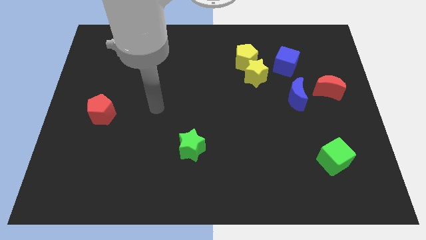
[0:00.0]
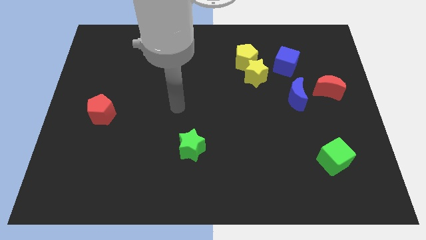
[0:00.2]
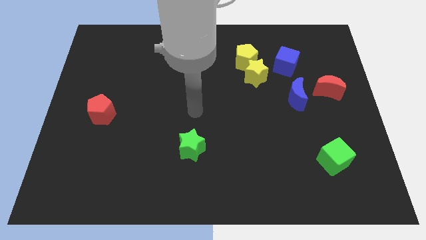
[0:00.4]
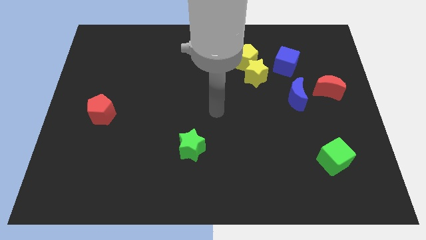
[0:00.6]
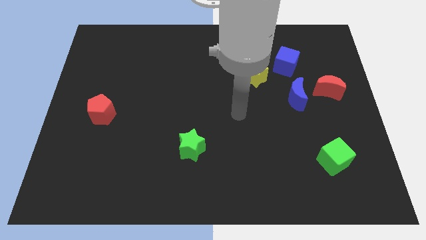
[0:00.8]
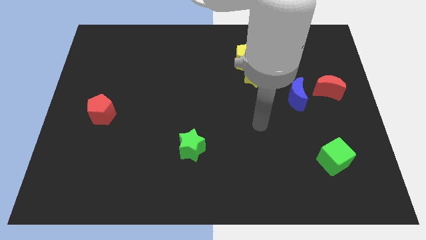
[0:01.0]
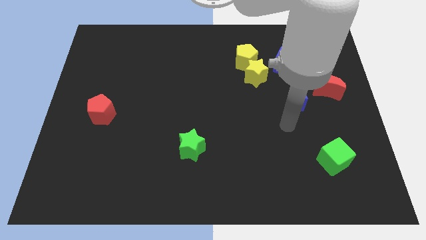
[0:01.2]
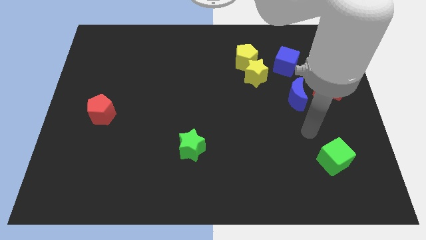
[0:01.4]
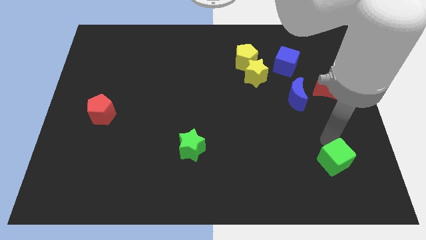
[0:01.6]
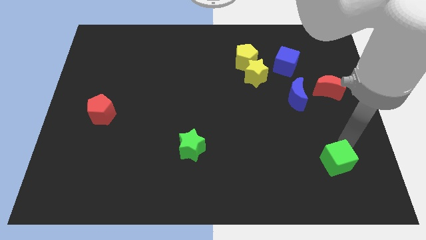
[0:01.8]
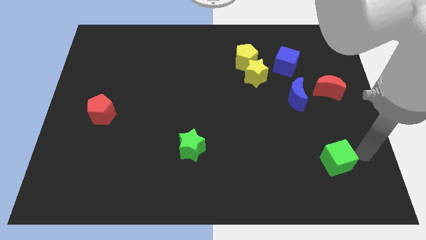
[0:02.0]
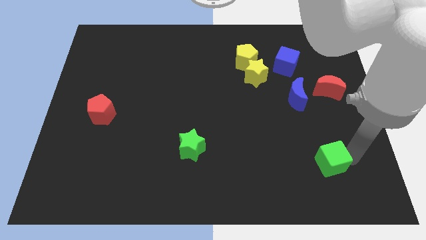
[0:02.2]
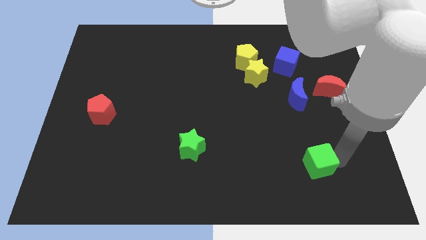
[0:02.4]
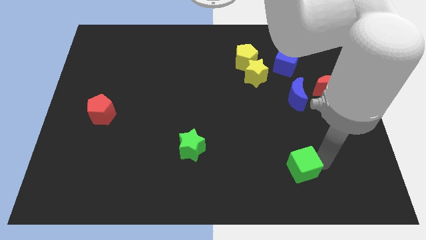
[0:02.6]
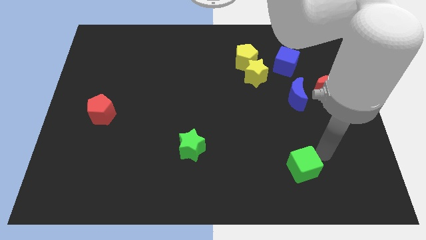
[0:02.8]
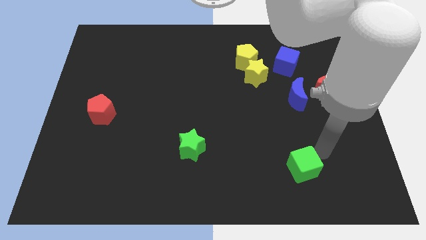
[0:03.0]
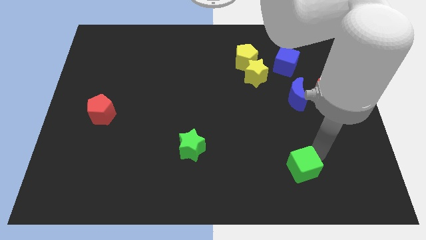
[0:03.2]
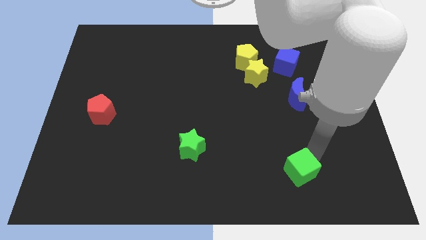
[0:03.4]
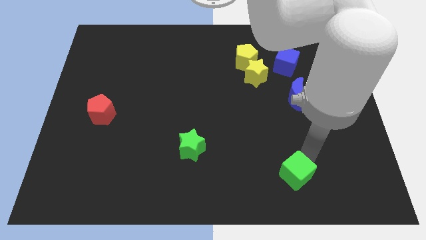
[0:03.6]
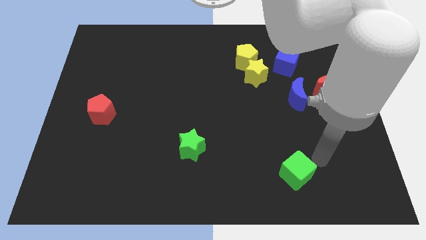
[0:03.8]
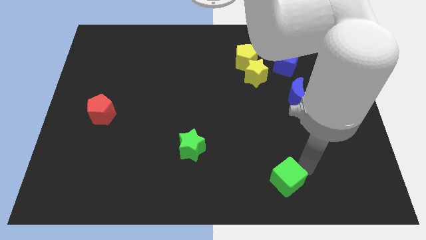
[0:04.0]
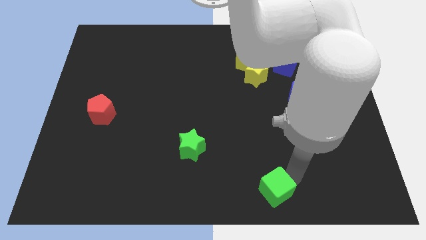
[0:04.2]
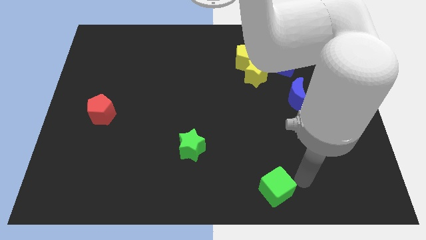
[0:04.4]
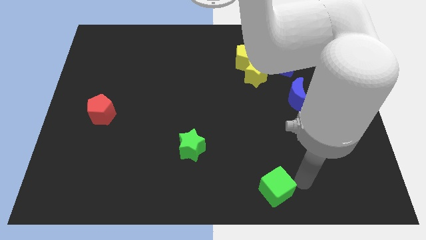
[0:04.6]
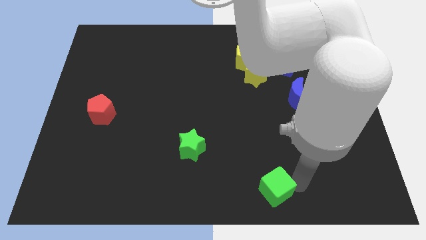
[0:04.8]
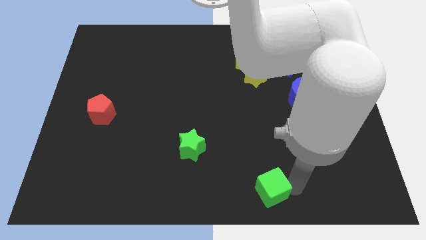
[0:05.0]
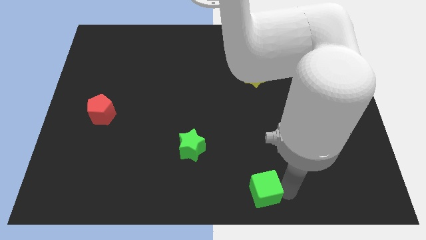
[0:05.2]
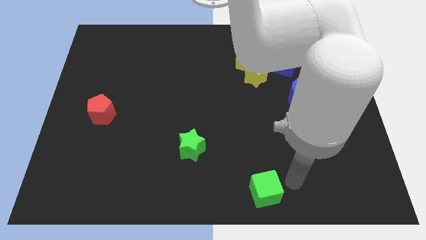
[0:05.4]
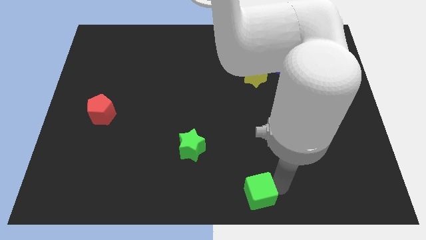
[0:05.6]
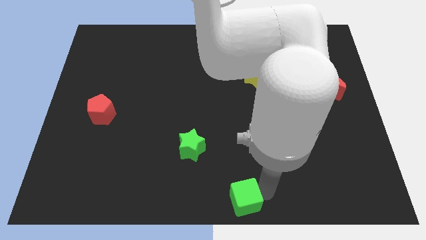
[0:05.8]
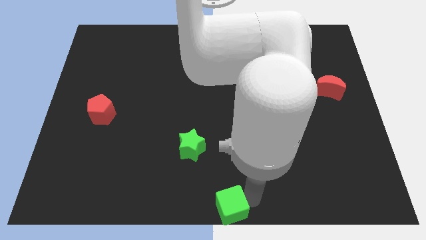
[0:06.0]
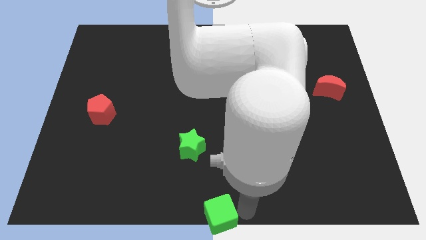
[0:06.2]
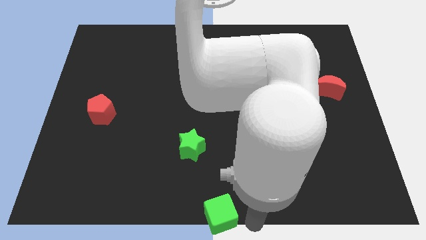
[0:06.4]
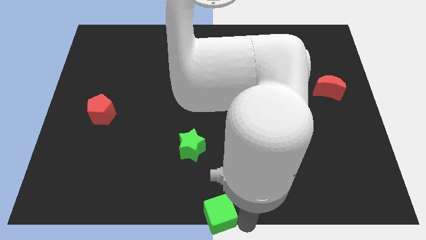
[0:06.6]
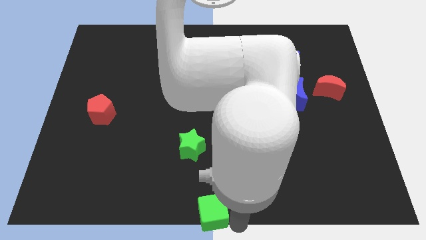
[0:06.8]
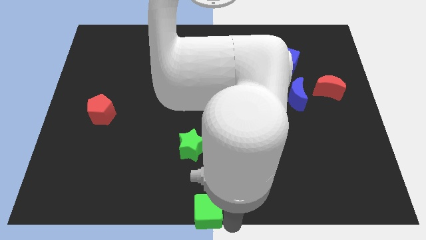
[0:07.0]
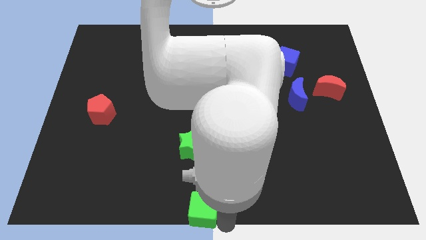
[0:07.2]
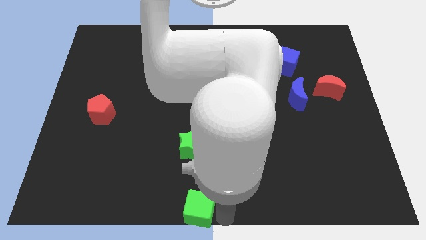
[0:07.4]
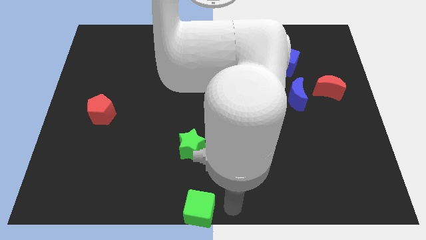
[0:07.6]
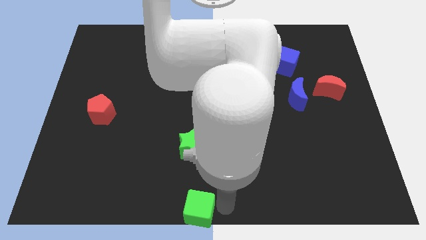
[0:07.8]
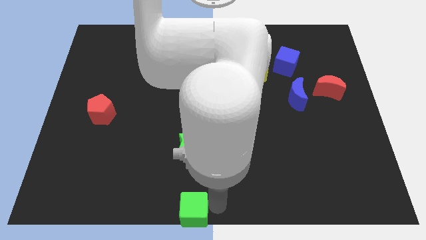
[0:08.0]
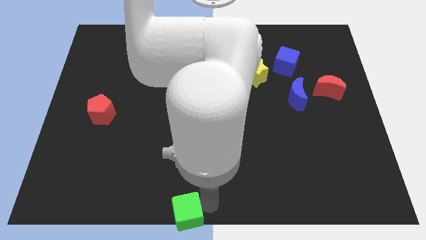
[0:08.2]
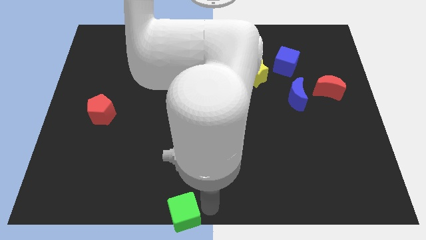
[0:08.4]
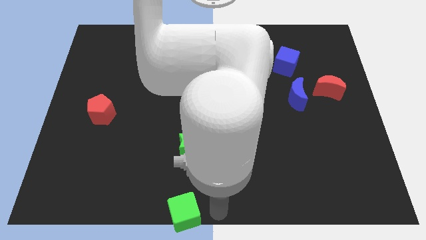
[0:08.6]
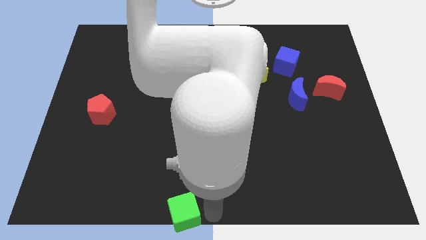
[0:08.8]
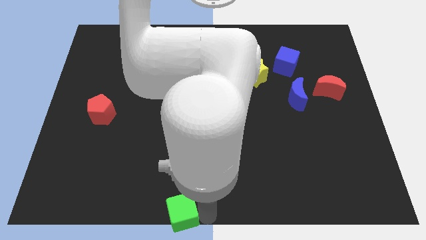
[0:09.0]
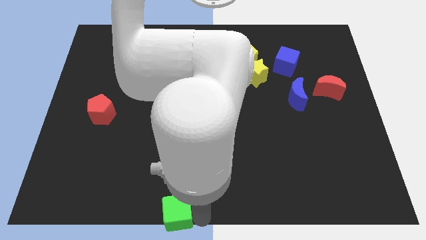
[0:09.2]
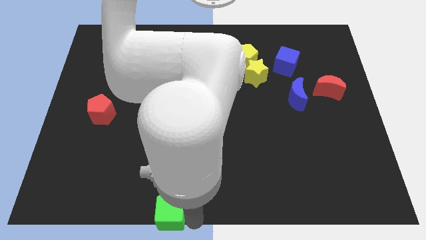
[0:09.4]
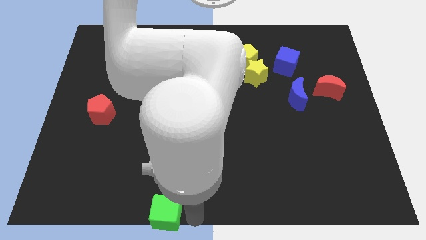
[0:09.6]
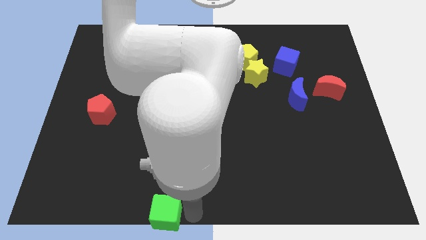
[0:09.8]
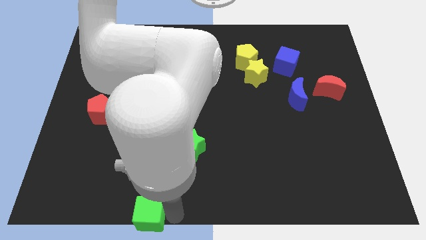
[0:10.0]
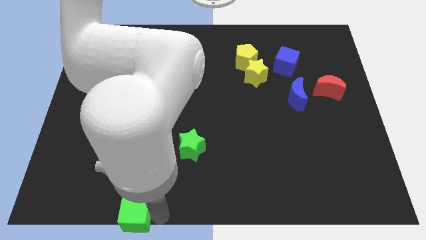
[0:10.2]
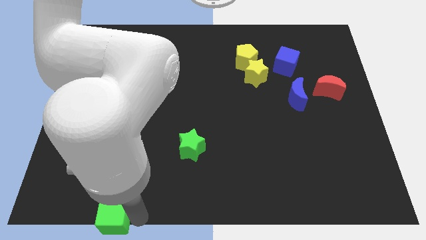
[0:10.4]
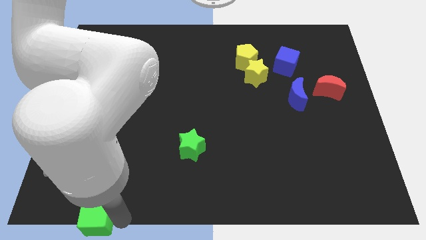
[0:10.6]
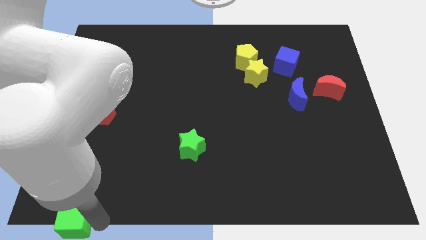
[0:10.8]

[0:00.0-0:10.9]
put the green cube to the lower left corner
